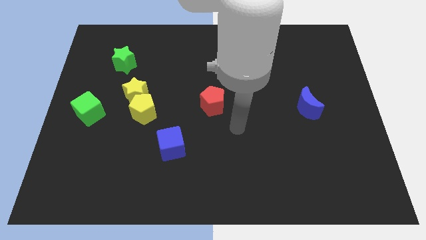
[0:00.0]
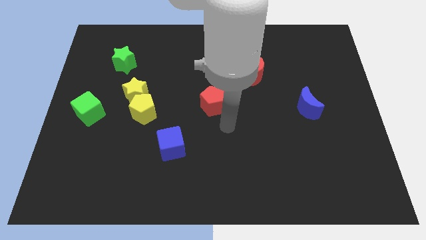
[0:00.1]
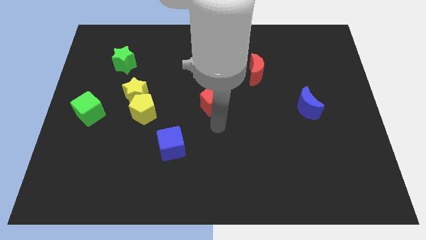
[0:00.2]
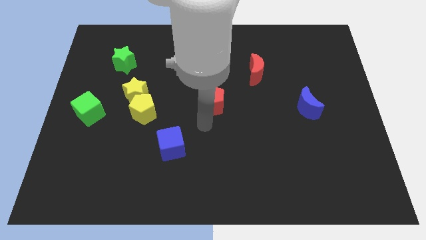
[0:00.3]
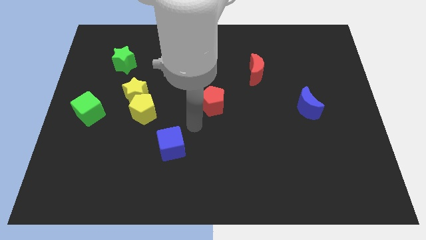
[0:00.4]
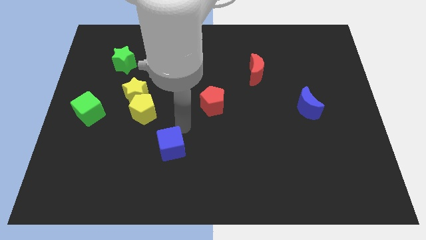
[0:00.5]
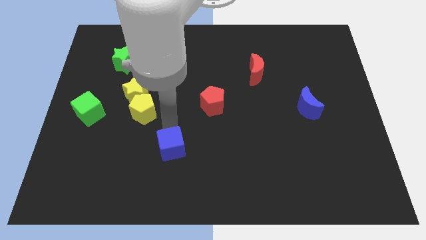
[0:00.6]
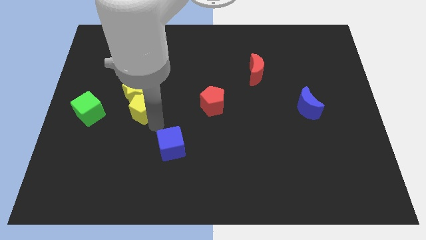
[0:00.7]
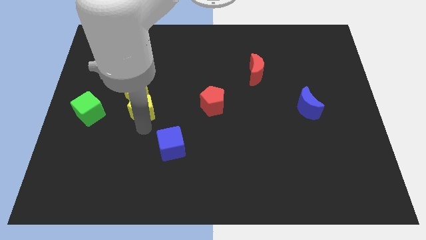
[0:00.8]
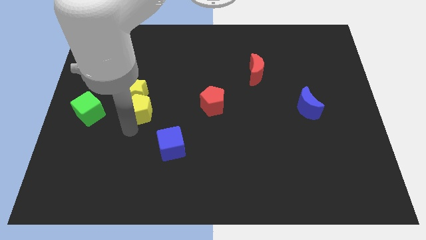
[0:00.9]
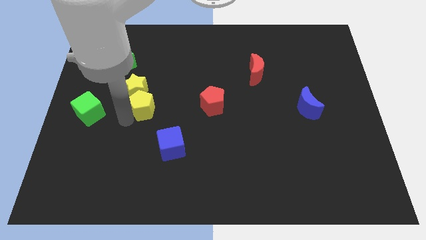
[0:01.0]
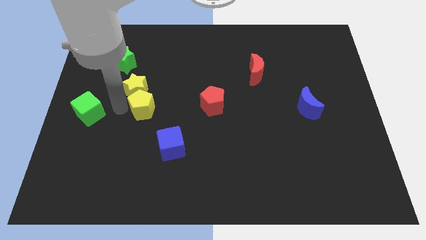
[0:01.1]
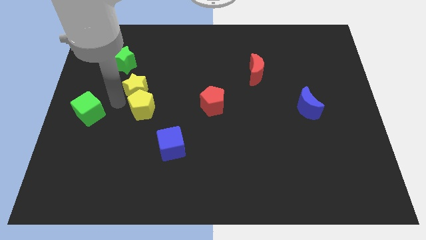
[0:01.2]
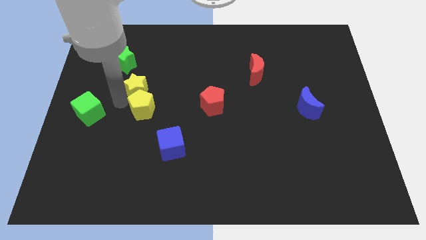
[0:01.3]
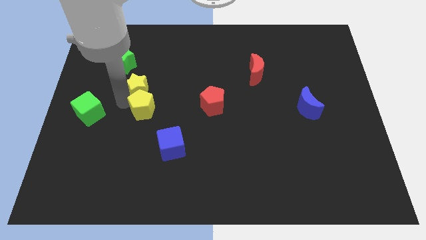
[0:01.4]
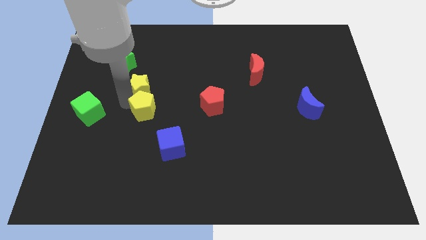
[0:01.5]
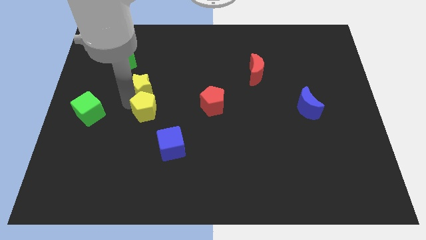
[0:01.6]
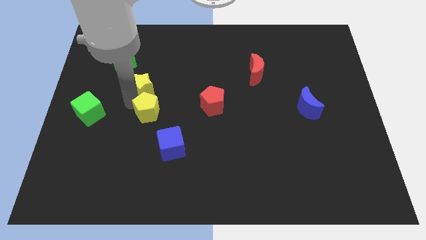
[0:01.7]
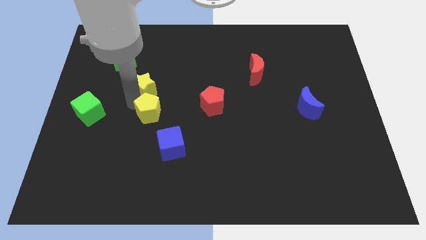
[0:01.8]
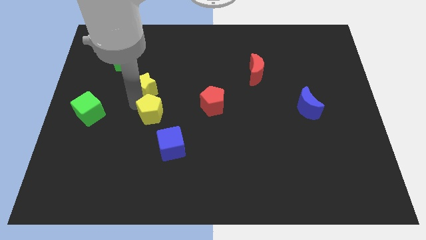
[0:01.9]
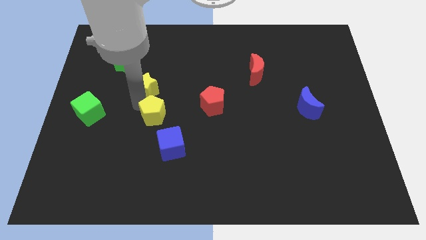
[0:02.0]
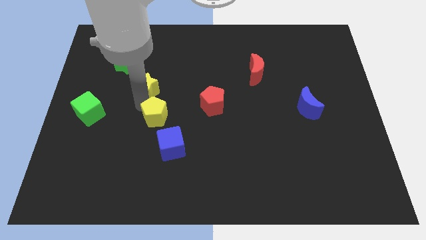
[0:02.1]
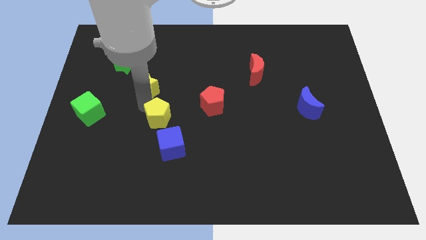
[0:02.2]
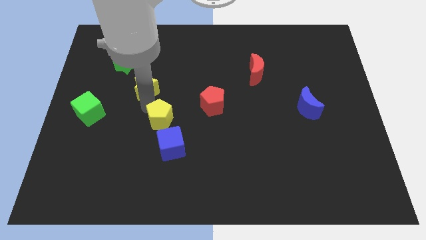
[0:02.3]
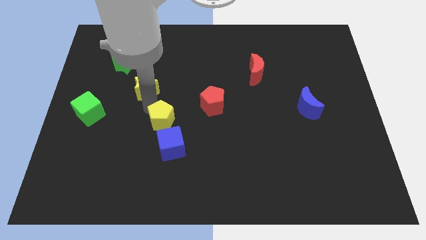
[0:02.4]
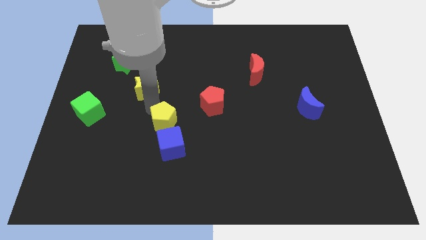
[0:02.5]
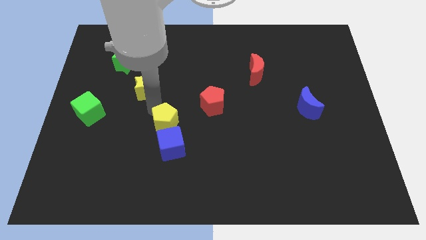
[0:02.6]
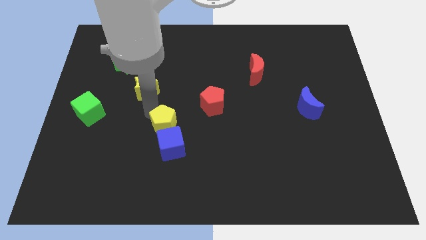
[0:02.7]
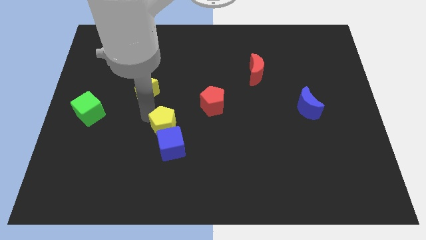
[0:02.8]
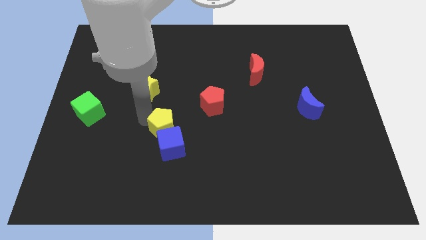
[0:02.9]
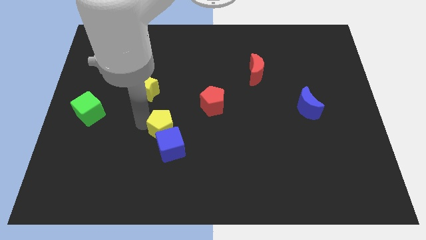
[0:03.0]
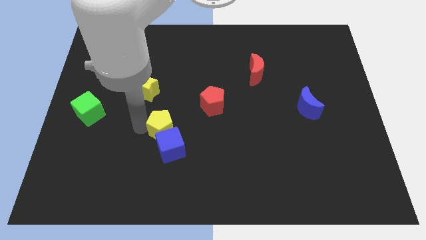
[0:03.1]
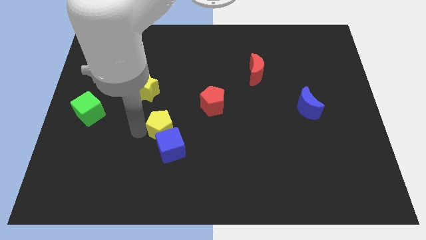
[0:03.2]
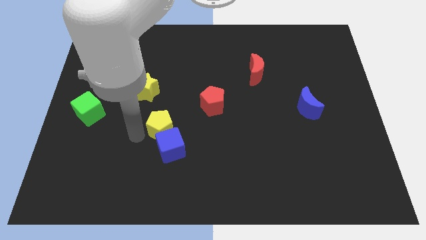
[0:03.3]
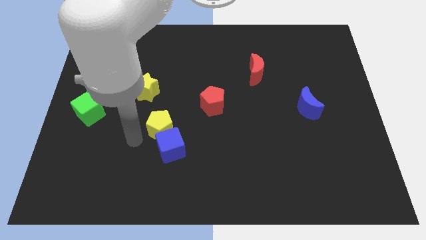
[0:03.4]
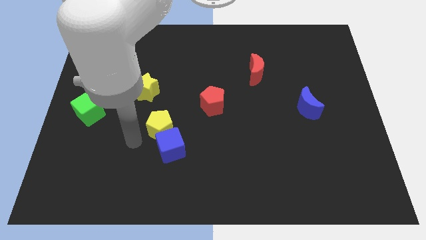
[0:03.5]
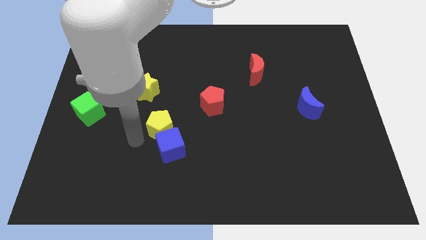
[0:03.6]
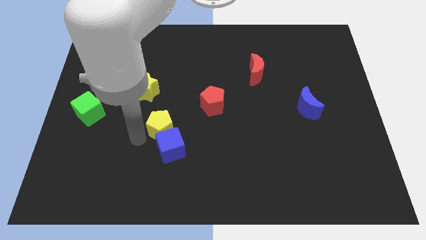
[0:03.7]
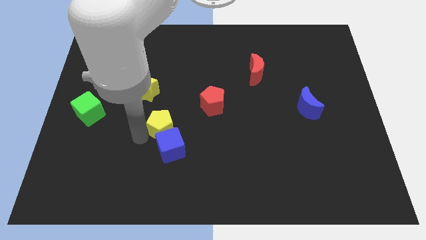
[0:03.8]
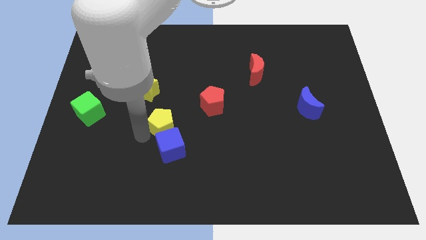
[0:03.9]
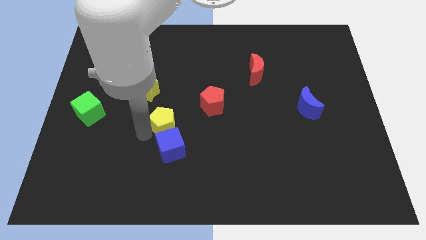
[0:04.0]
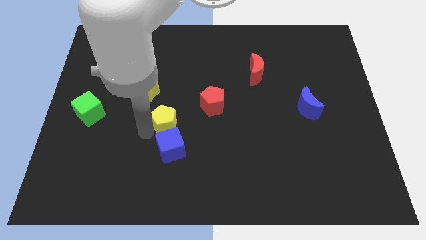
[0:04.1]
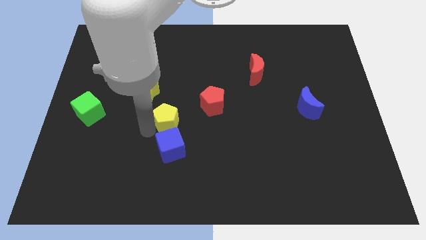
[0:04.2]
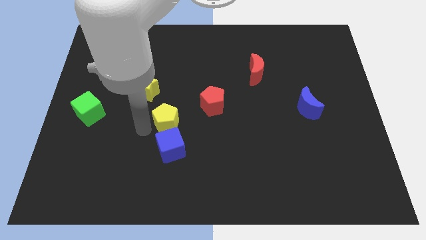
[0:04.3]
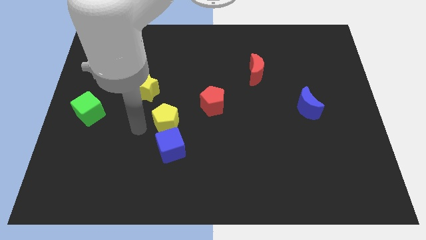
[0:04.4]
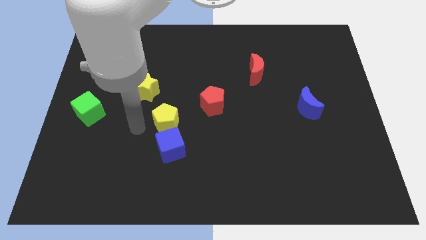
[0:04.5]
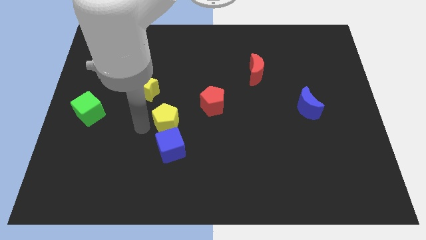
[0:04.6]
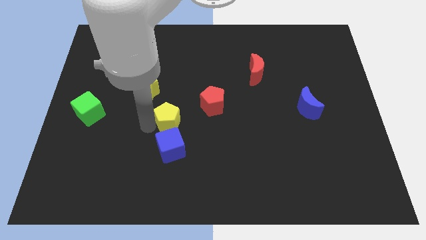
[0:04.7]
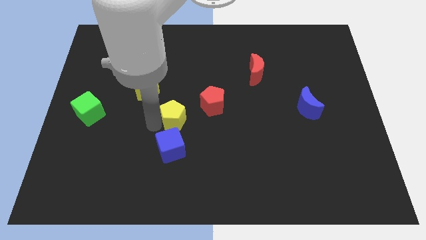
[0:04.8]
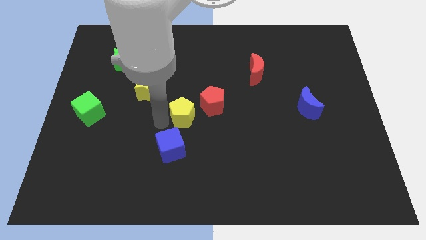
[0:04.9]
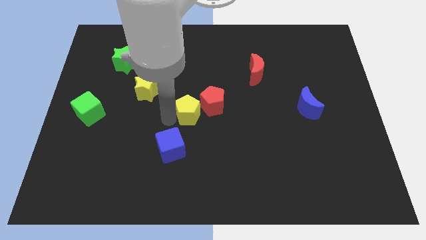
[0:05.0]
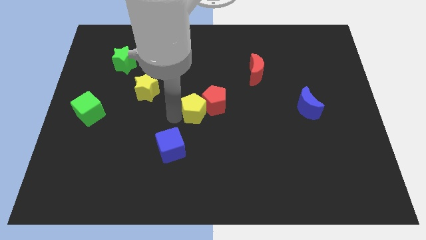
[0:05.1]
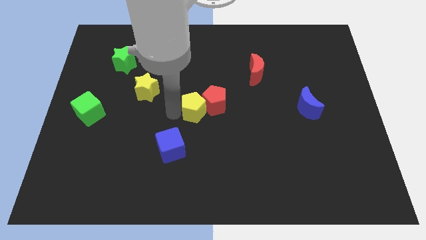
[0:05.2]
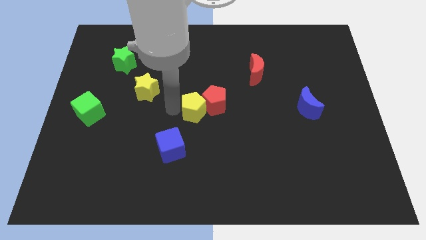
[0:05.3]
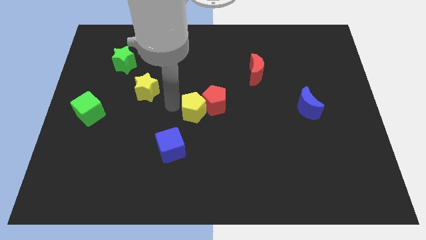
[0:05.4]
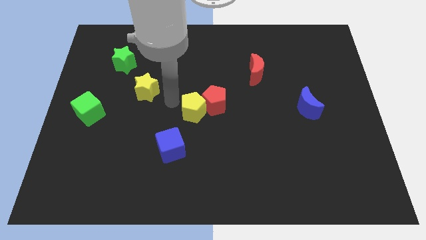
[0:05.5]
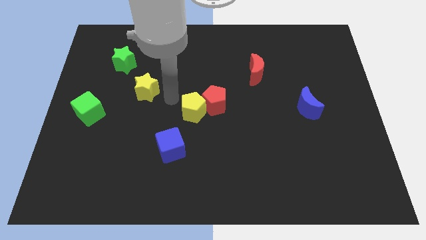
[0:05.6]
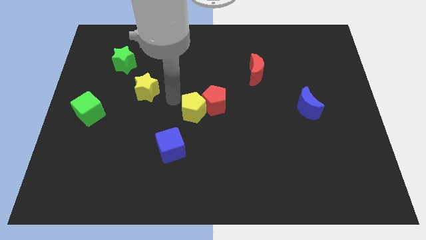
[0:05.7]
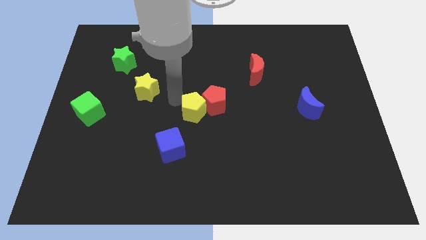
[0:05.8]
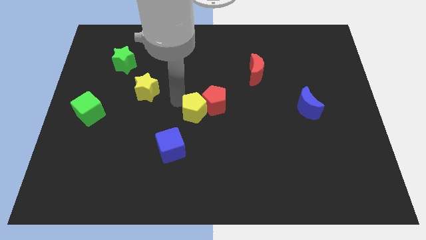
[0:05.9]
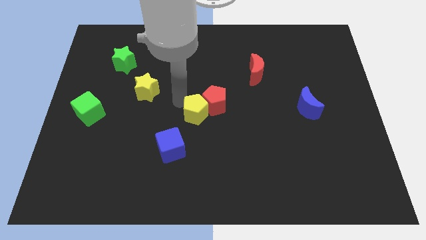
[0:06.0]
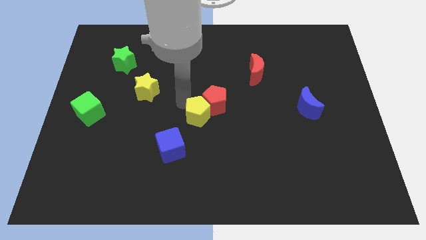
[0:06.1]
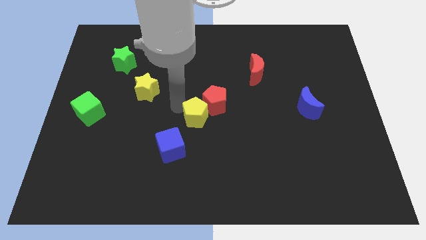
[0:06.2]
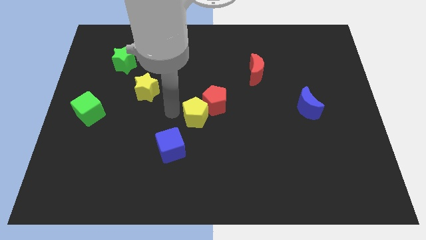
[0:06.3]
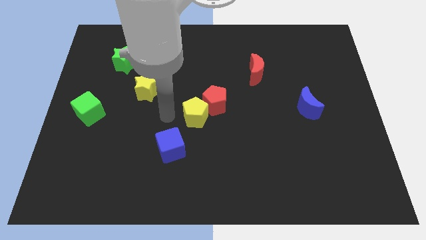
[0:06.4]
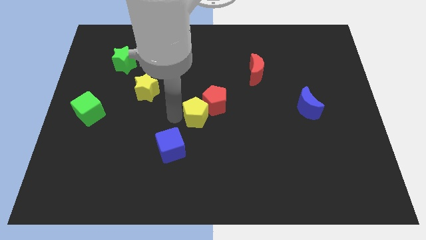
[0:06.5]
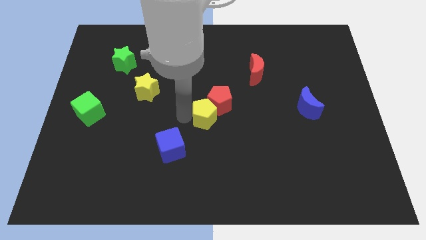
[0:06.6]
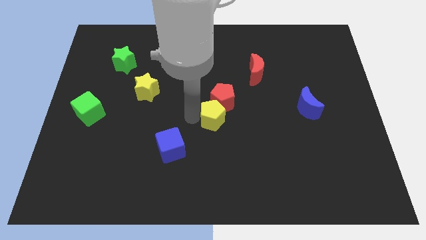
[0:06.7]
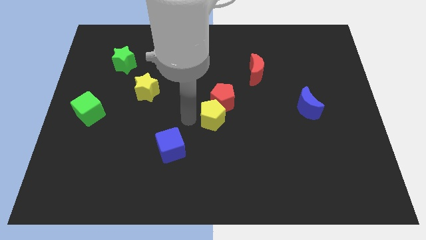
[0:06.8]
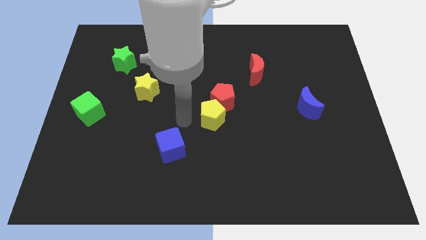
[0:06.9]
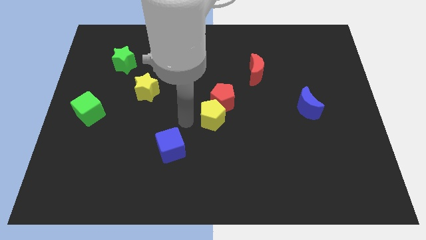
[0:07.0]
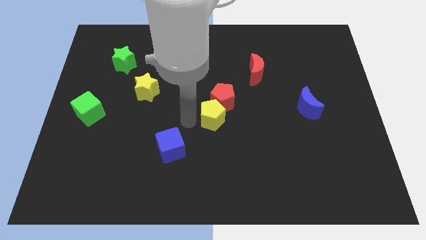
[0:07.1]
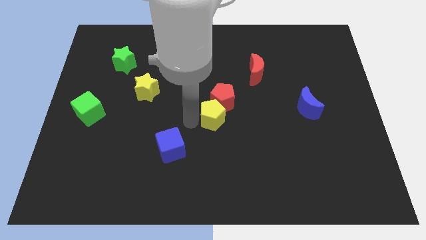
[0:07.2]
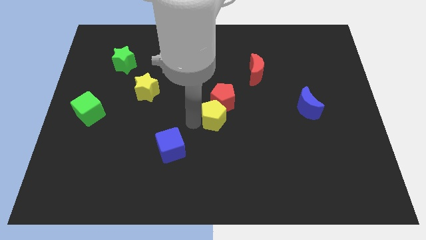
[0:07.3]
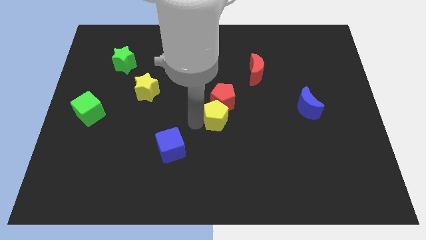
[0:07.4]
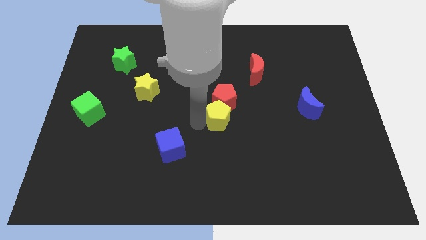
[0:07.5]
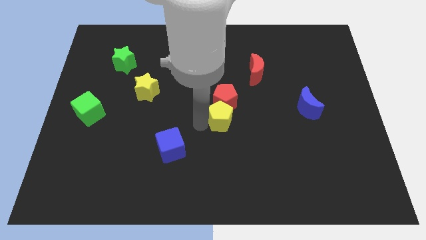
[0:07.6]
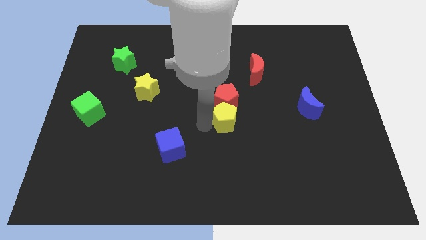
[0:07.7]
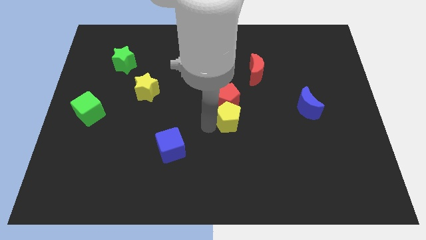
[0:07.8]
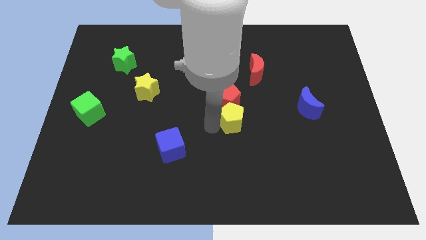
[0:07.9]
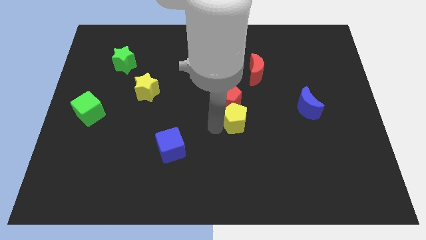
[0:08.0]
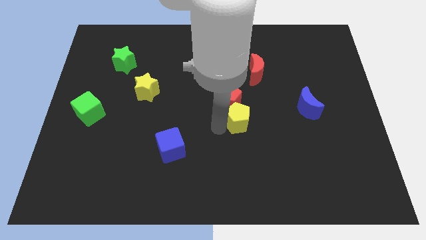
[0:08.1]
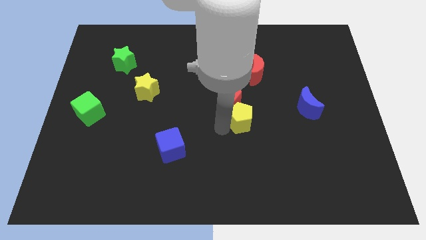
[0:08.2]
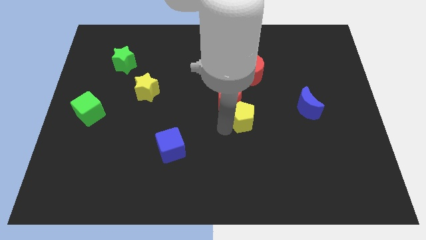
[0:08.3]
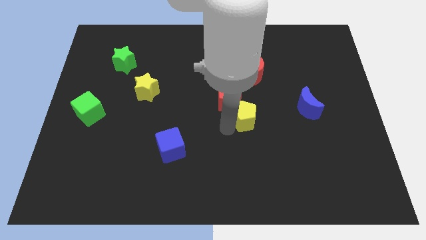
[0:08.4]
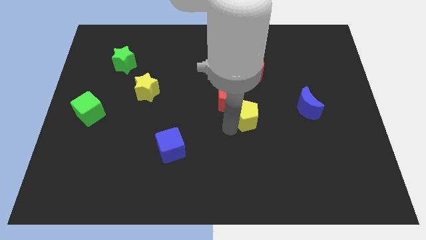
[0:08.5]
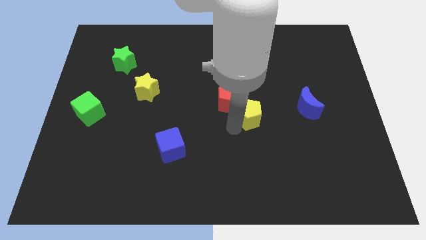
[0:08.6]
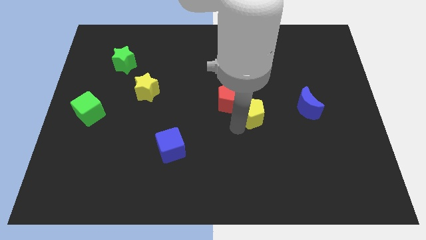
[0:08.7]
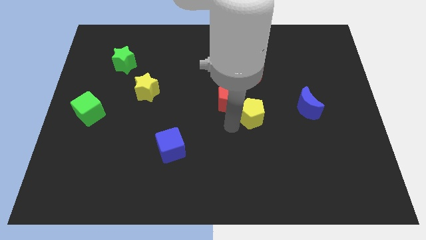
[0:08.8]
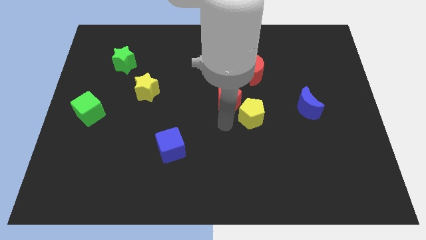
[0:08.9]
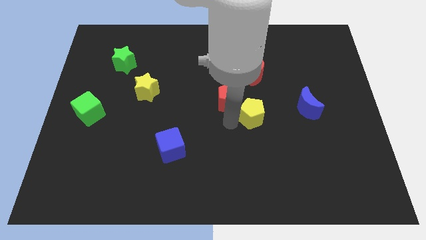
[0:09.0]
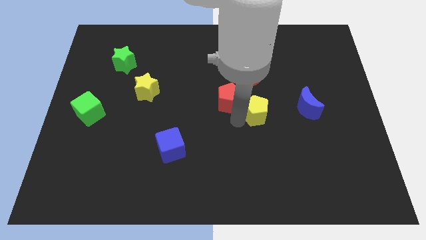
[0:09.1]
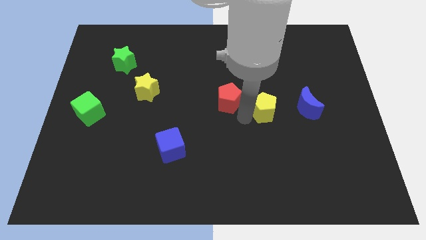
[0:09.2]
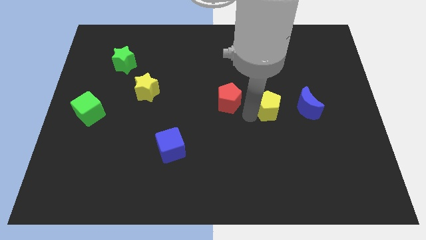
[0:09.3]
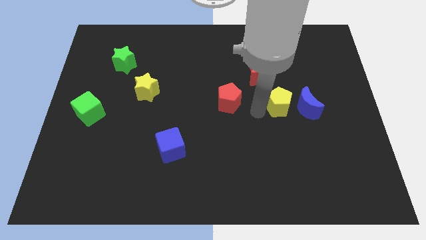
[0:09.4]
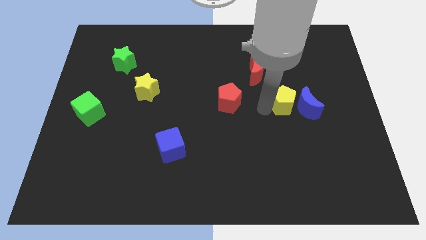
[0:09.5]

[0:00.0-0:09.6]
slide the yellow pentagon towards the blue moon
